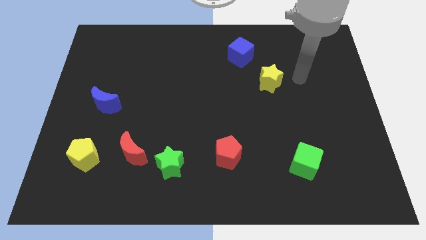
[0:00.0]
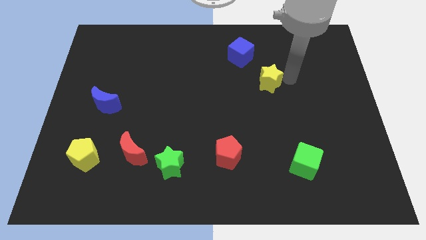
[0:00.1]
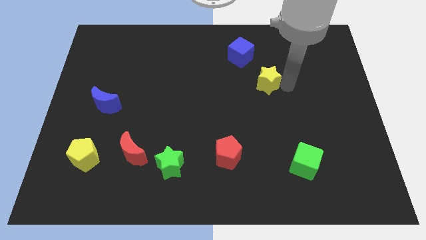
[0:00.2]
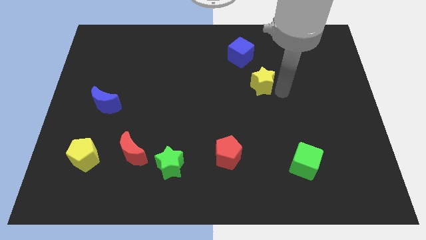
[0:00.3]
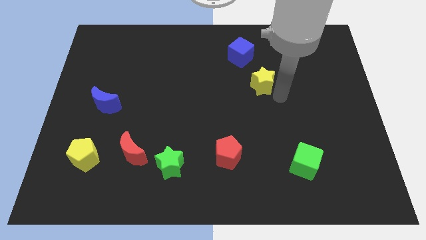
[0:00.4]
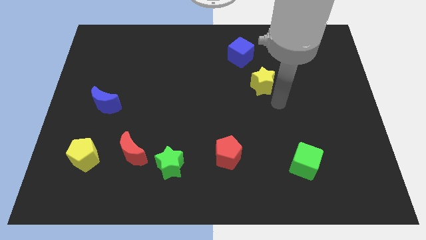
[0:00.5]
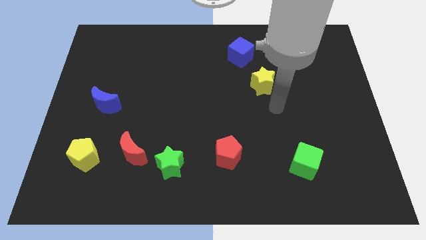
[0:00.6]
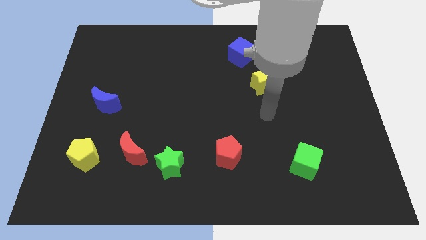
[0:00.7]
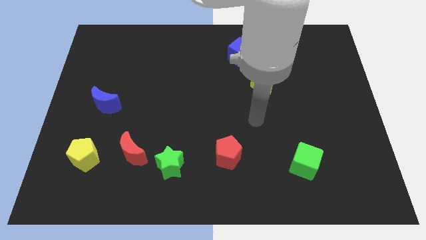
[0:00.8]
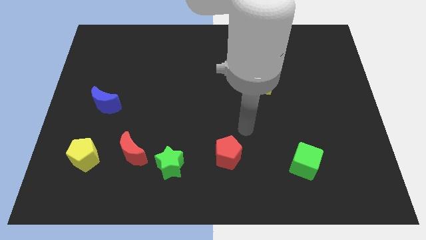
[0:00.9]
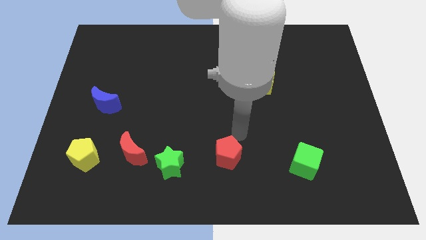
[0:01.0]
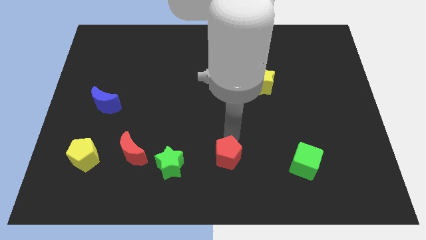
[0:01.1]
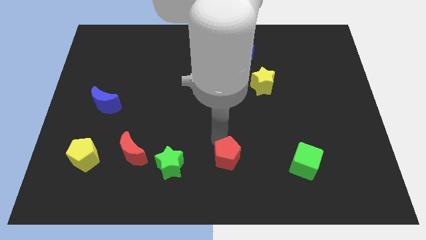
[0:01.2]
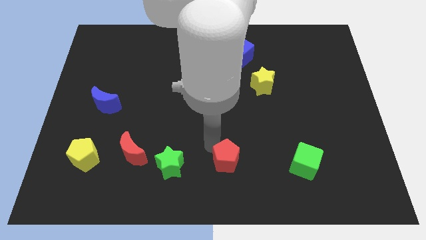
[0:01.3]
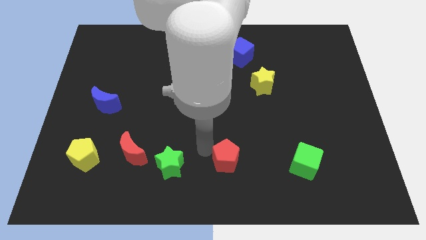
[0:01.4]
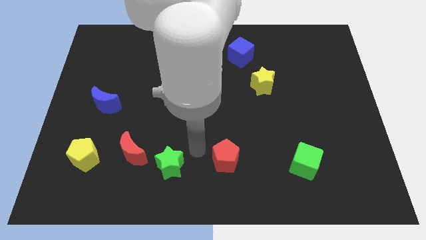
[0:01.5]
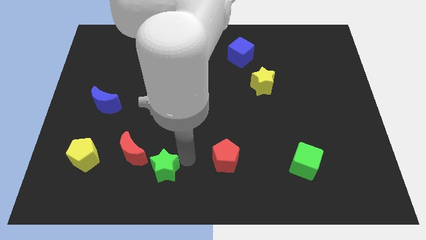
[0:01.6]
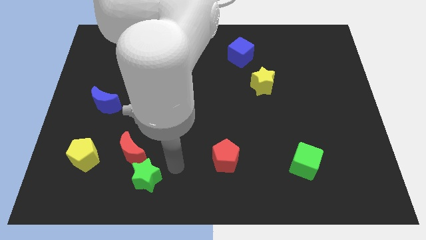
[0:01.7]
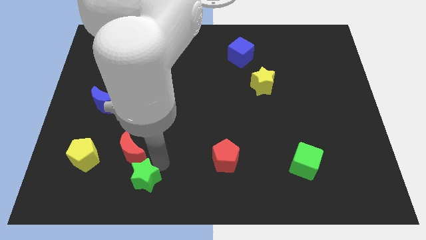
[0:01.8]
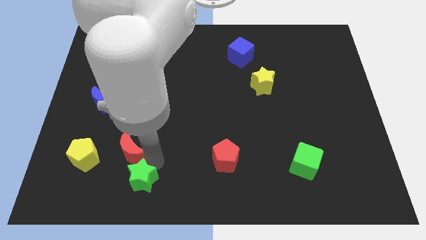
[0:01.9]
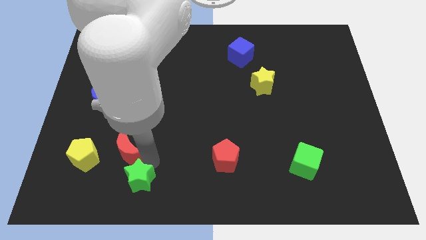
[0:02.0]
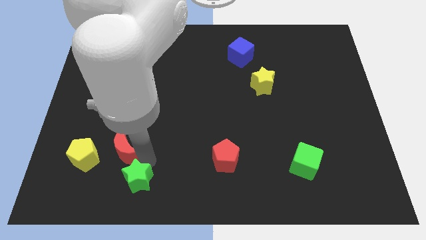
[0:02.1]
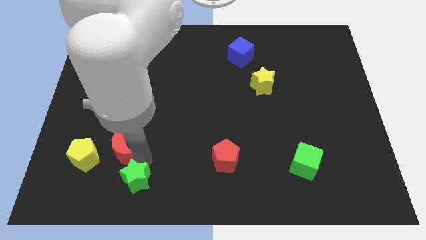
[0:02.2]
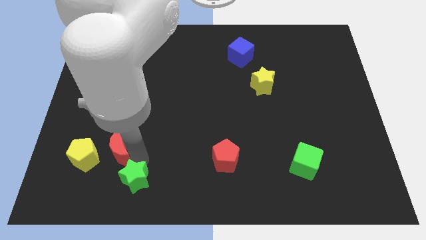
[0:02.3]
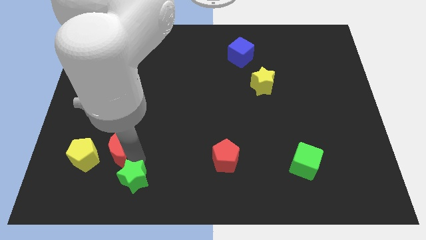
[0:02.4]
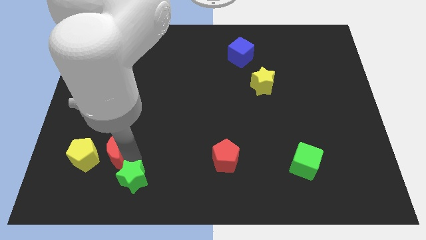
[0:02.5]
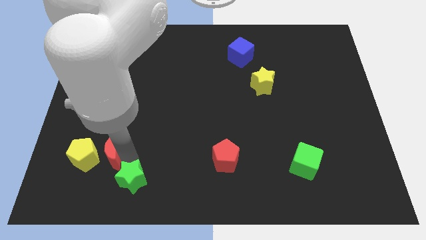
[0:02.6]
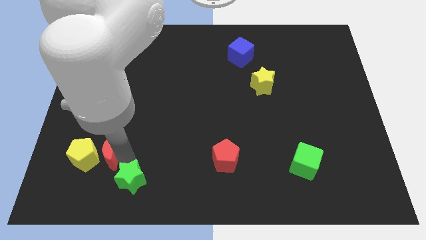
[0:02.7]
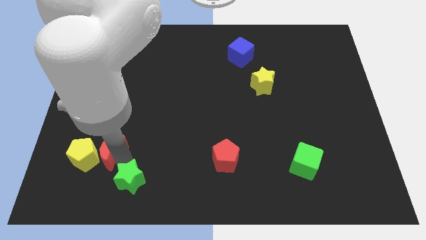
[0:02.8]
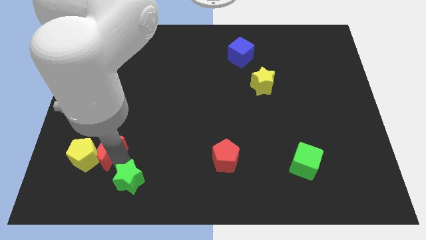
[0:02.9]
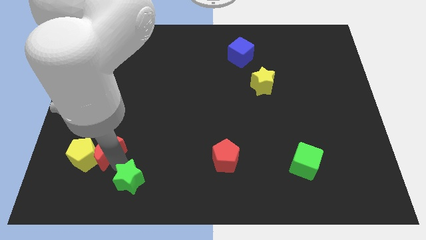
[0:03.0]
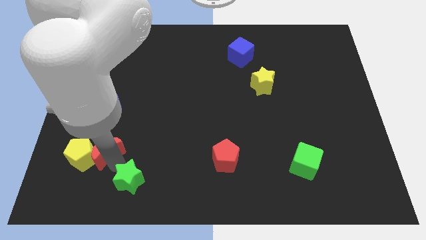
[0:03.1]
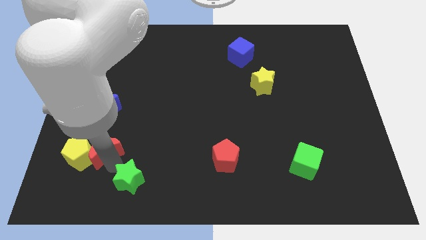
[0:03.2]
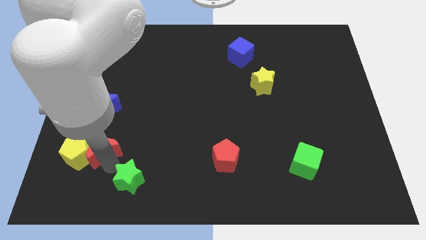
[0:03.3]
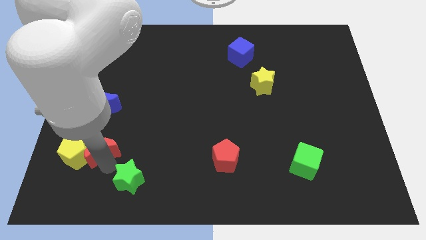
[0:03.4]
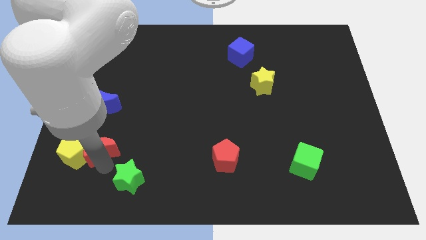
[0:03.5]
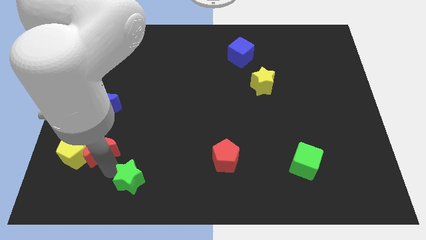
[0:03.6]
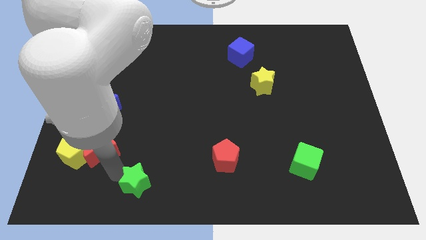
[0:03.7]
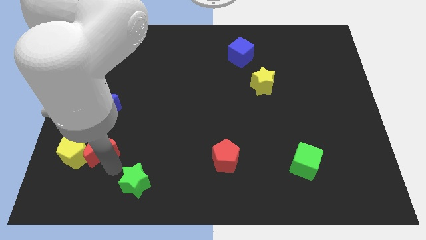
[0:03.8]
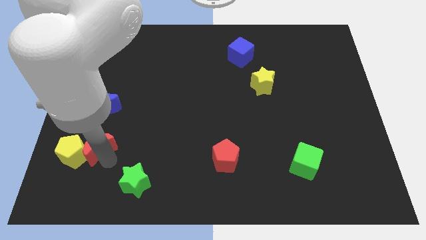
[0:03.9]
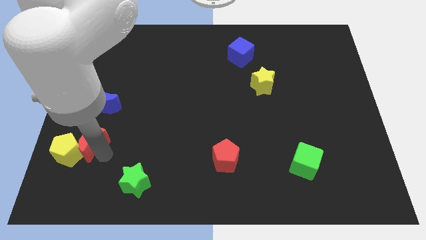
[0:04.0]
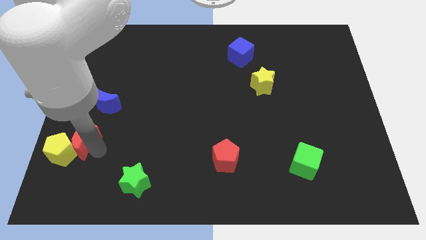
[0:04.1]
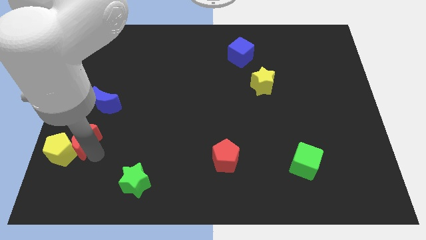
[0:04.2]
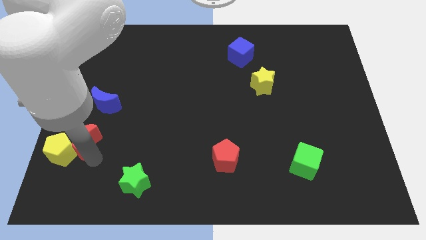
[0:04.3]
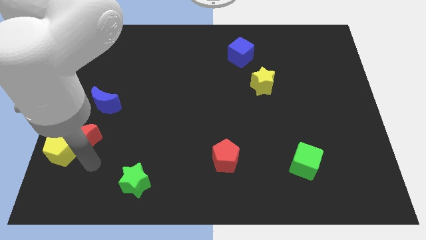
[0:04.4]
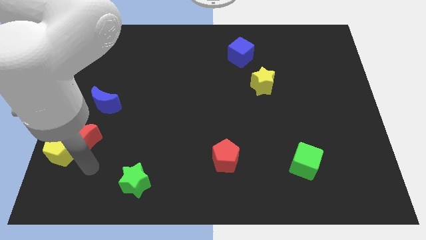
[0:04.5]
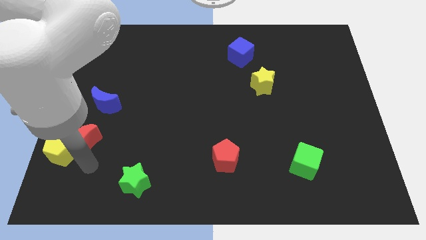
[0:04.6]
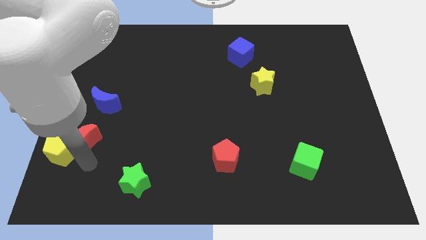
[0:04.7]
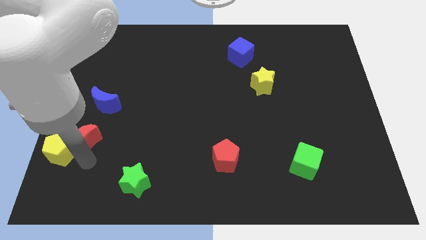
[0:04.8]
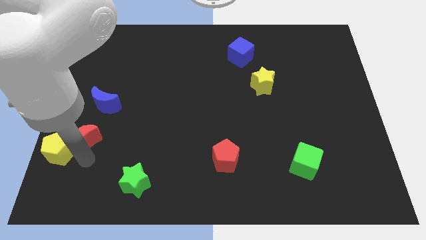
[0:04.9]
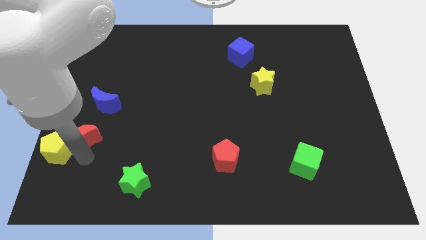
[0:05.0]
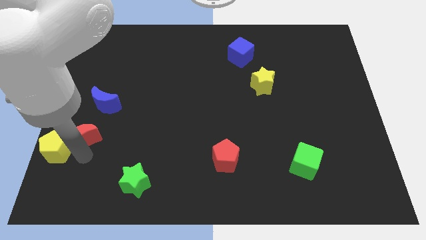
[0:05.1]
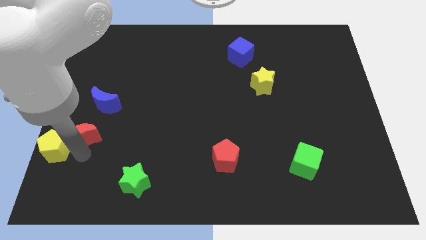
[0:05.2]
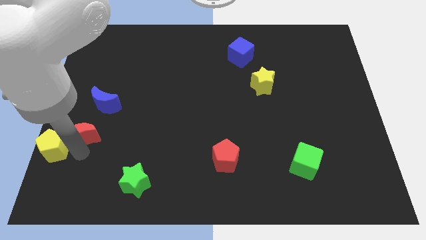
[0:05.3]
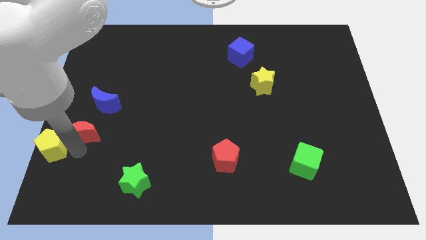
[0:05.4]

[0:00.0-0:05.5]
slide the red moon to the left side of the board

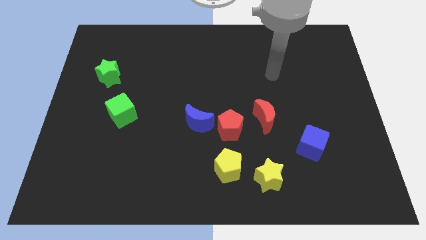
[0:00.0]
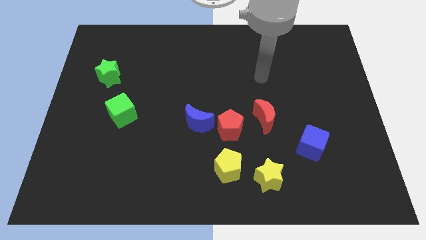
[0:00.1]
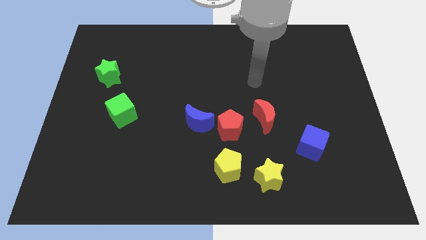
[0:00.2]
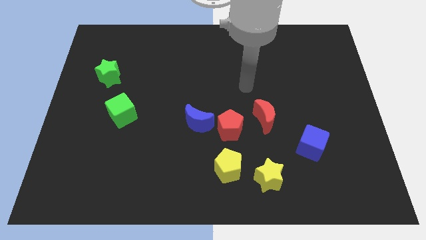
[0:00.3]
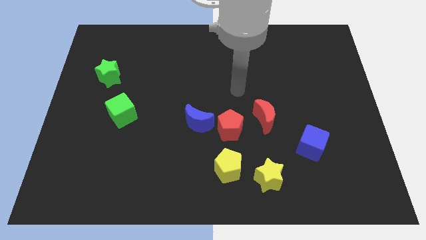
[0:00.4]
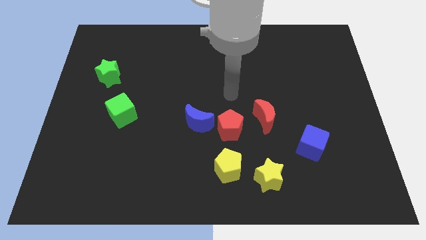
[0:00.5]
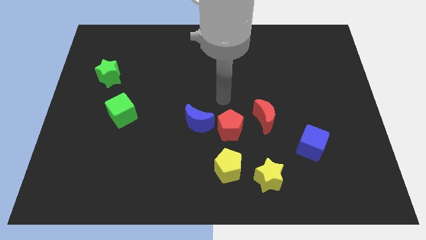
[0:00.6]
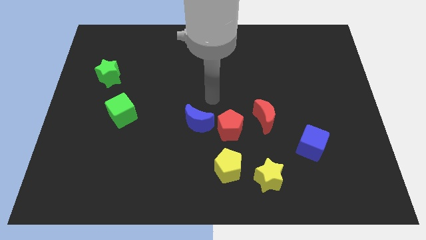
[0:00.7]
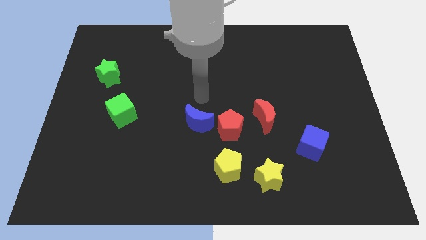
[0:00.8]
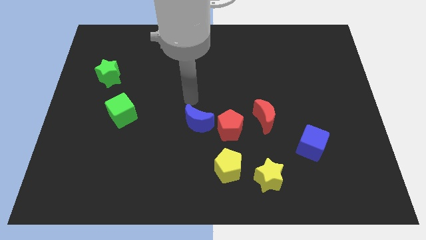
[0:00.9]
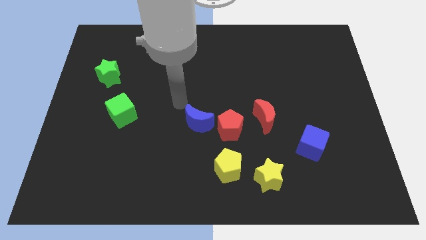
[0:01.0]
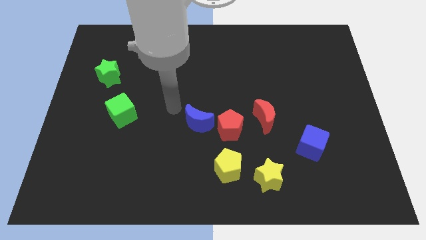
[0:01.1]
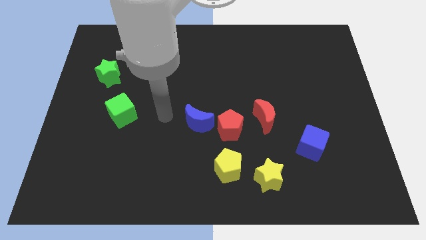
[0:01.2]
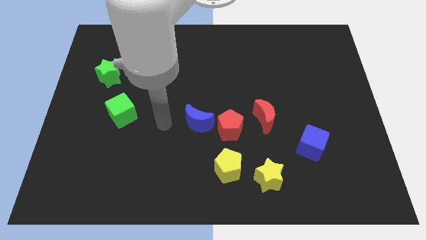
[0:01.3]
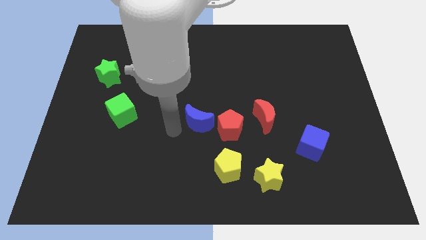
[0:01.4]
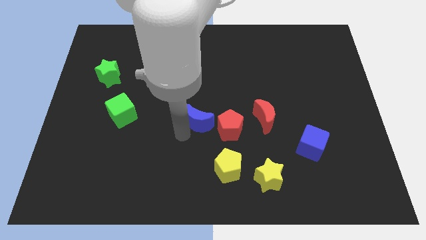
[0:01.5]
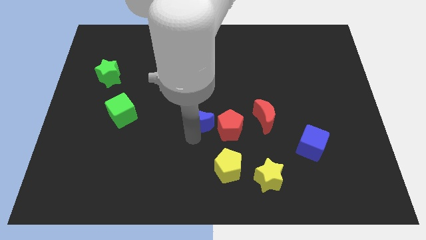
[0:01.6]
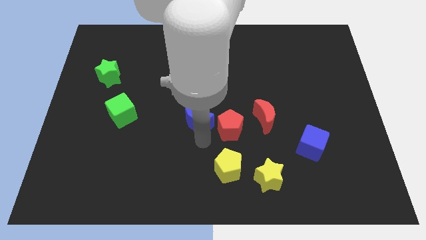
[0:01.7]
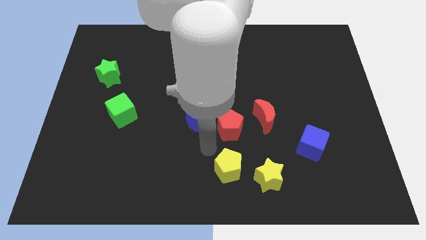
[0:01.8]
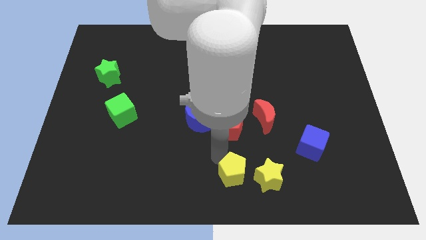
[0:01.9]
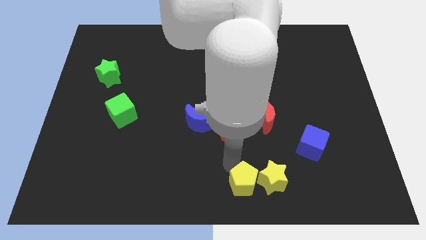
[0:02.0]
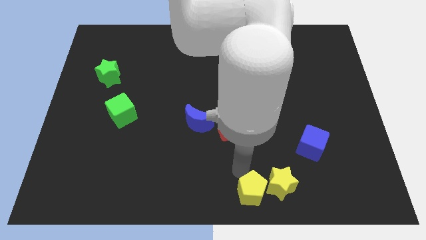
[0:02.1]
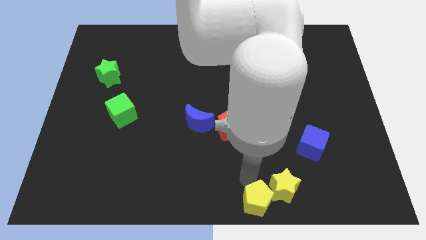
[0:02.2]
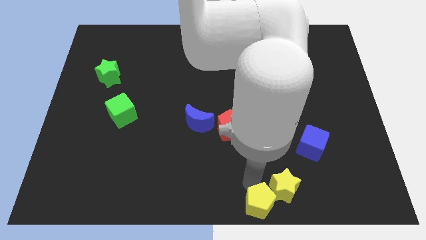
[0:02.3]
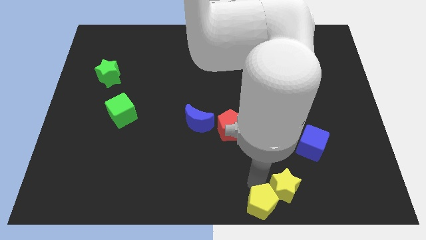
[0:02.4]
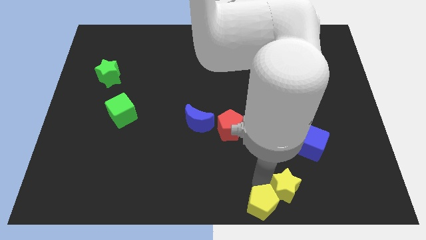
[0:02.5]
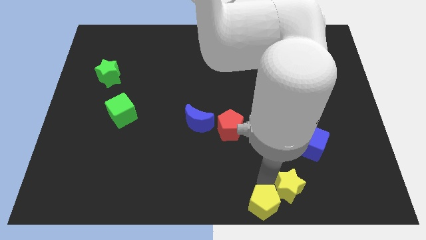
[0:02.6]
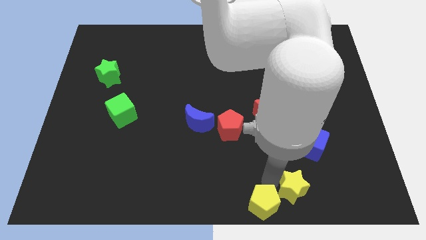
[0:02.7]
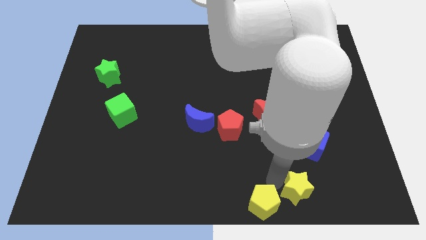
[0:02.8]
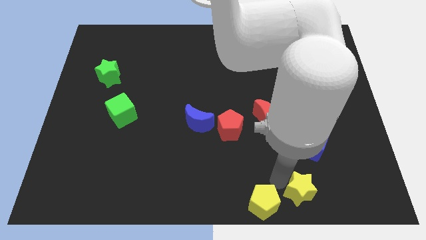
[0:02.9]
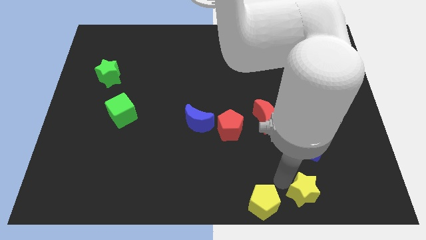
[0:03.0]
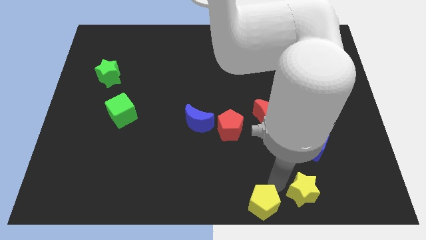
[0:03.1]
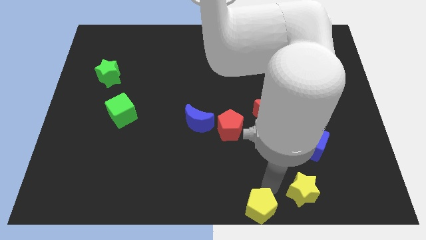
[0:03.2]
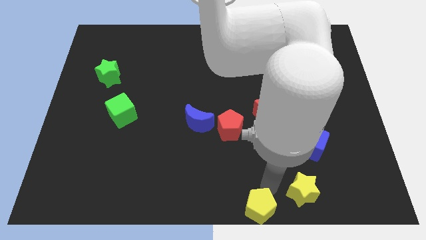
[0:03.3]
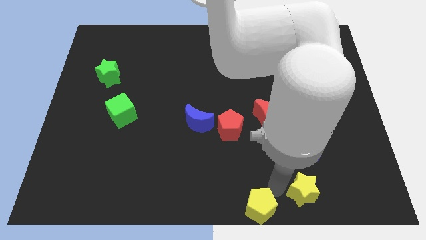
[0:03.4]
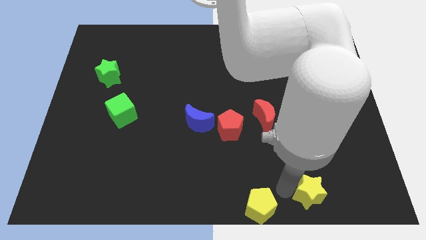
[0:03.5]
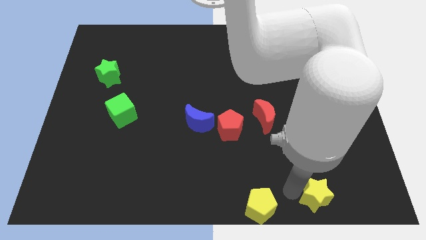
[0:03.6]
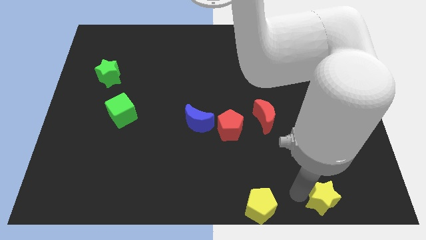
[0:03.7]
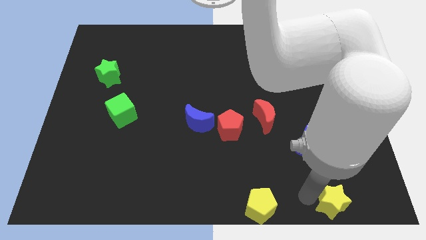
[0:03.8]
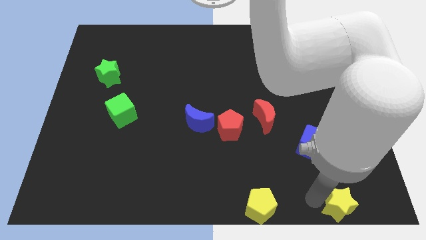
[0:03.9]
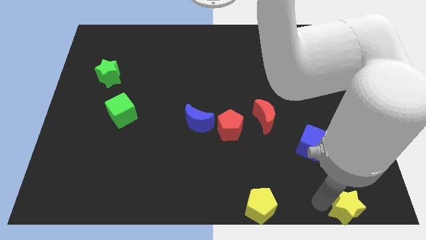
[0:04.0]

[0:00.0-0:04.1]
put the yellow star to the bottom right
